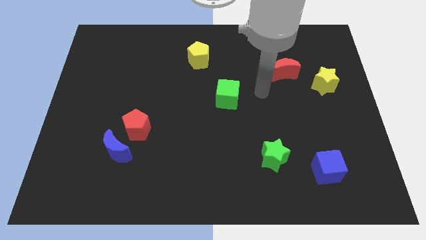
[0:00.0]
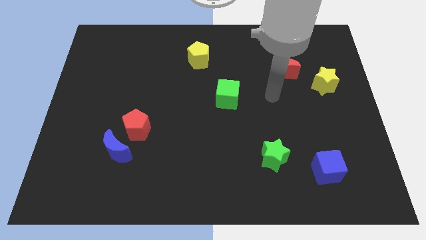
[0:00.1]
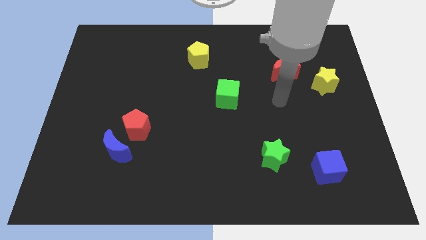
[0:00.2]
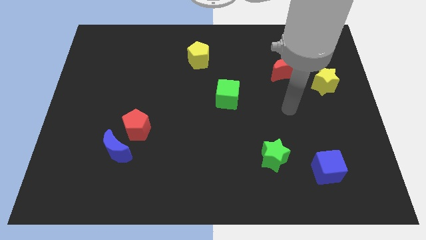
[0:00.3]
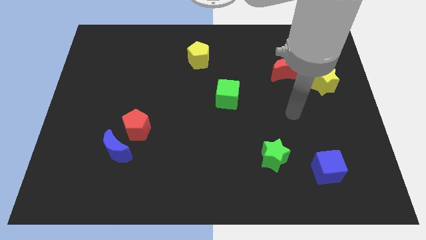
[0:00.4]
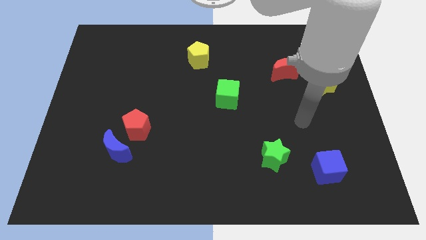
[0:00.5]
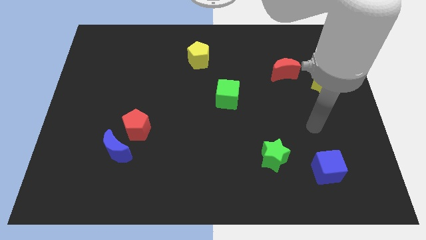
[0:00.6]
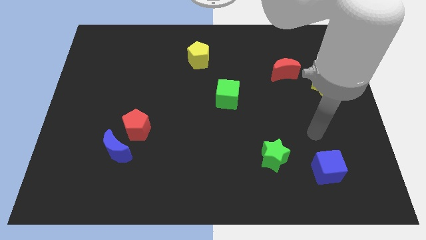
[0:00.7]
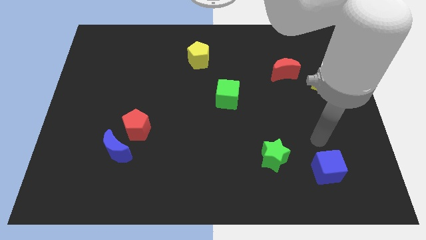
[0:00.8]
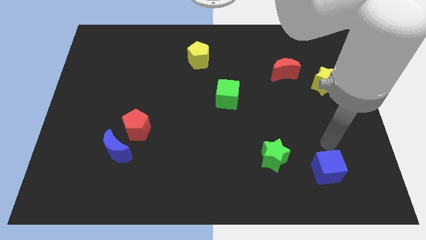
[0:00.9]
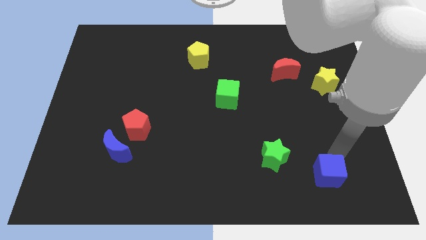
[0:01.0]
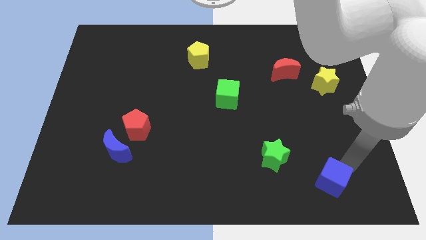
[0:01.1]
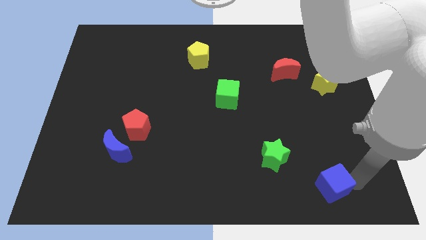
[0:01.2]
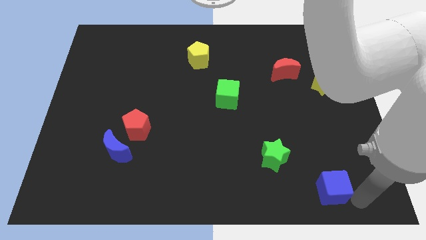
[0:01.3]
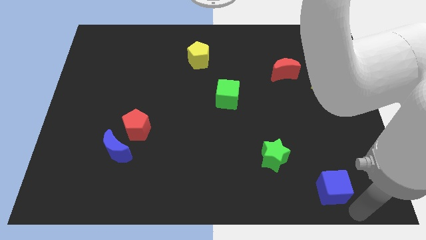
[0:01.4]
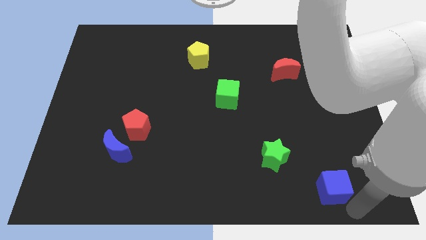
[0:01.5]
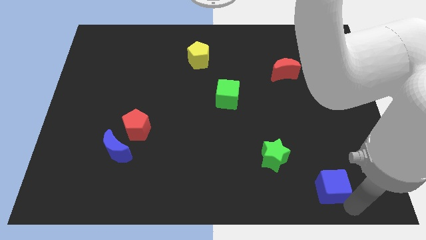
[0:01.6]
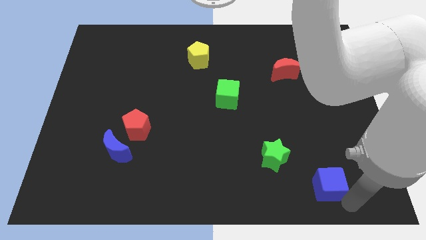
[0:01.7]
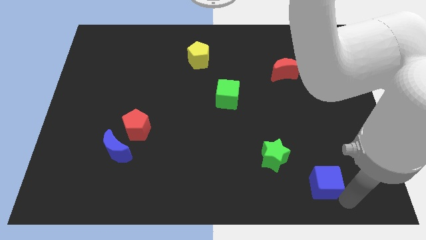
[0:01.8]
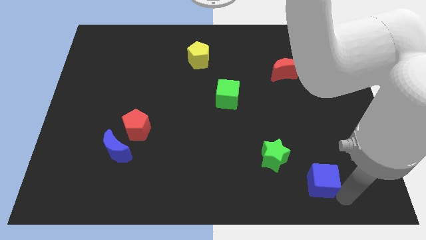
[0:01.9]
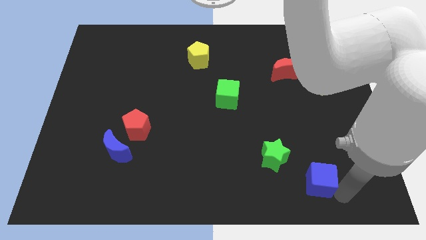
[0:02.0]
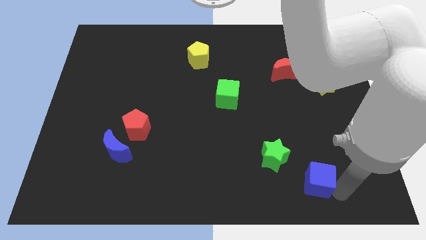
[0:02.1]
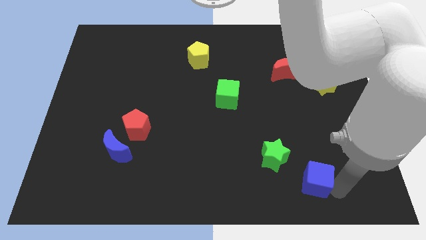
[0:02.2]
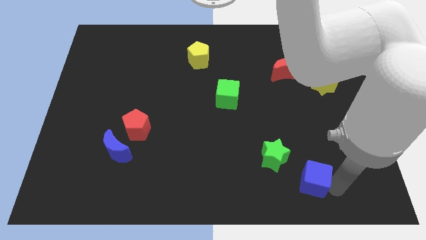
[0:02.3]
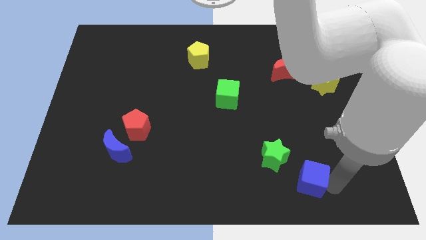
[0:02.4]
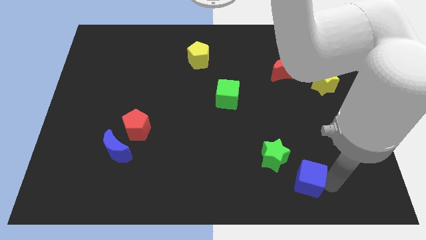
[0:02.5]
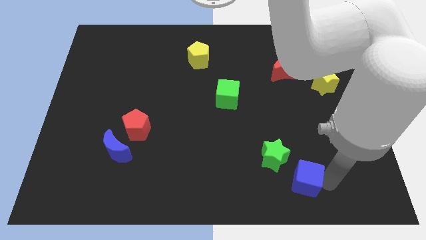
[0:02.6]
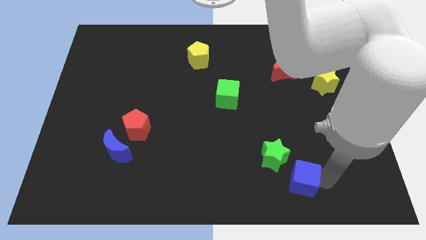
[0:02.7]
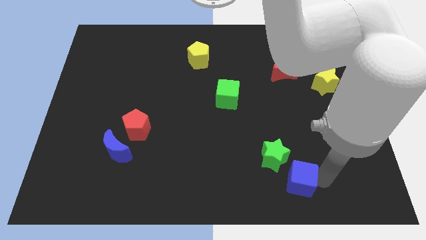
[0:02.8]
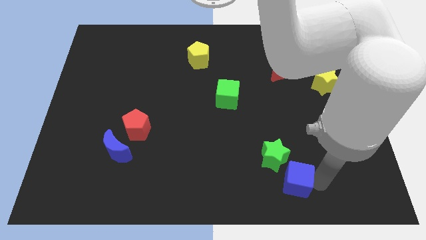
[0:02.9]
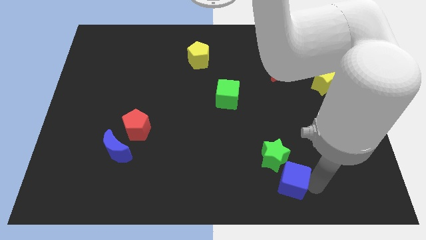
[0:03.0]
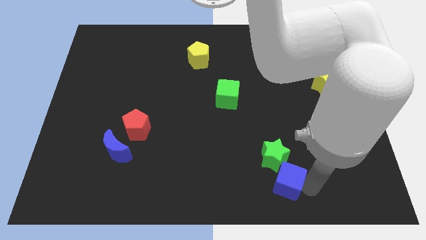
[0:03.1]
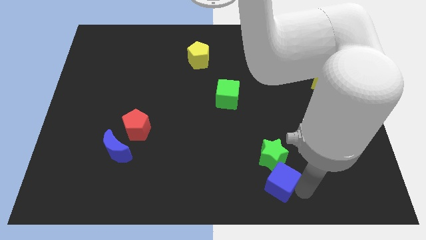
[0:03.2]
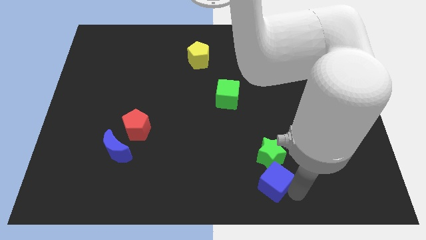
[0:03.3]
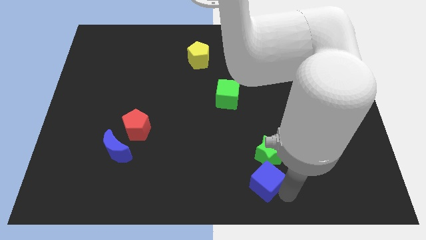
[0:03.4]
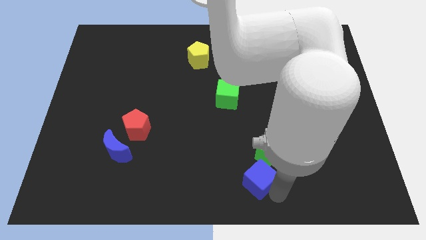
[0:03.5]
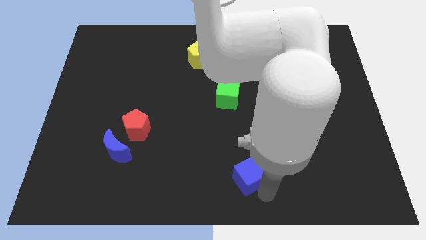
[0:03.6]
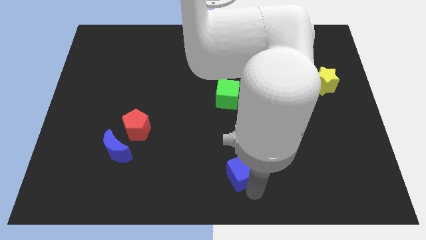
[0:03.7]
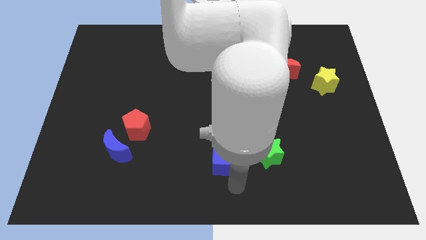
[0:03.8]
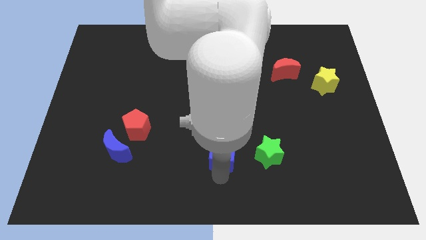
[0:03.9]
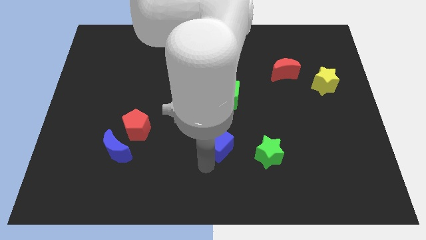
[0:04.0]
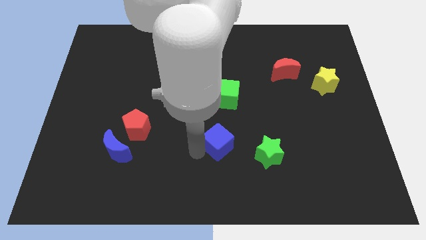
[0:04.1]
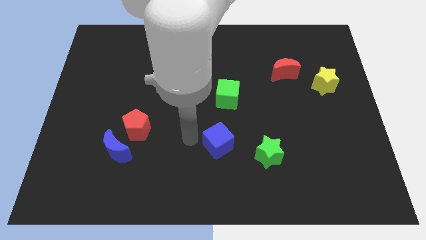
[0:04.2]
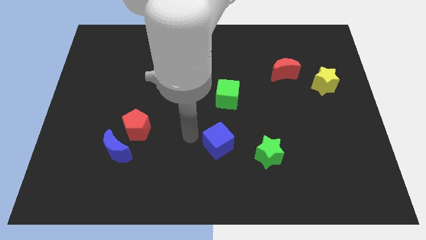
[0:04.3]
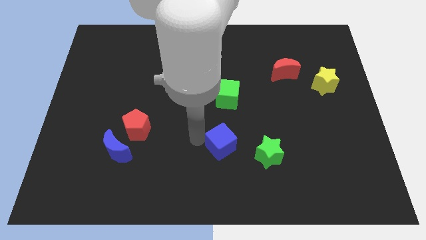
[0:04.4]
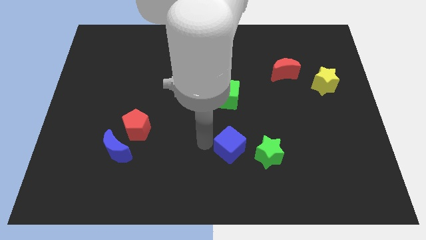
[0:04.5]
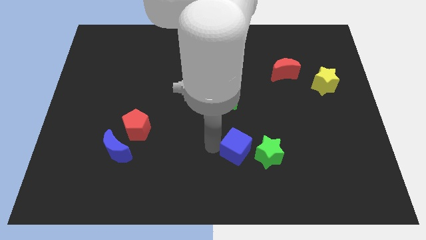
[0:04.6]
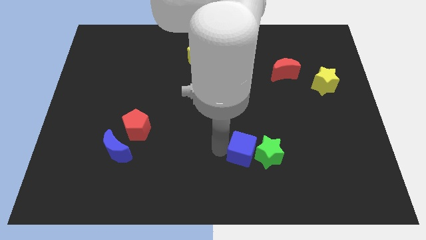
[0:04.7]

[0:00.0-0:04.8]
push the blue cube to the green star

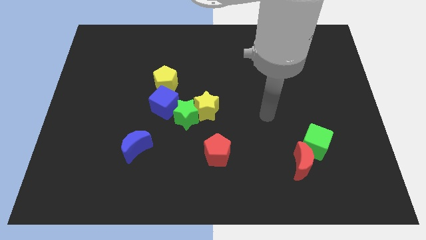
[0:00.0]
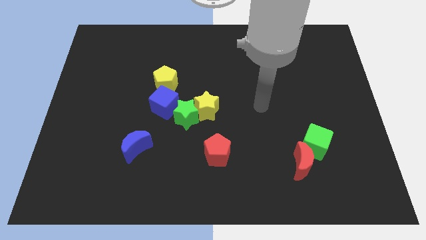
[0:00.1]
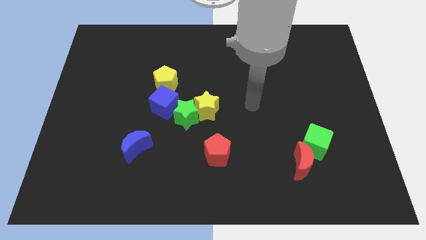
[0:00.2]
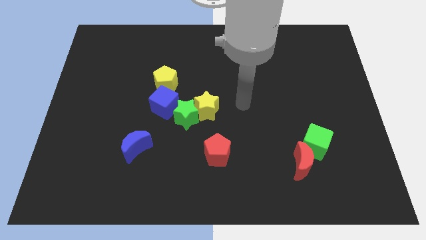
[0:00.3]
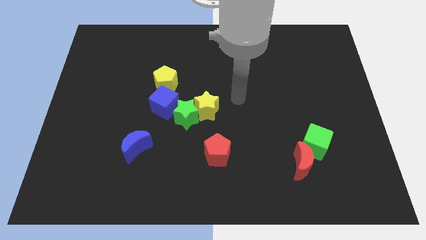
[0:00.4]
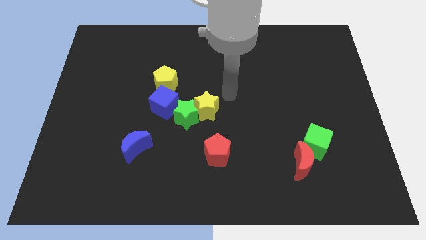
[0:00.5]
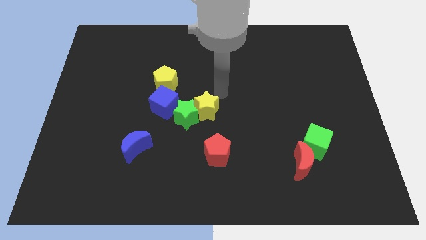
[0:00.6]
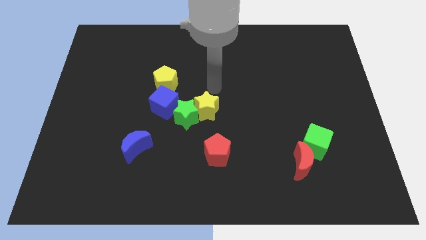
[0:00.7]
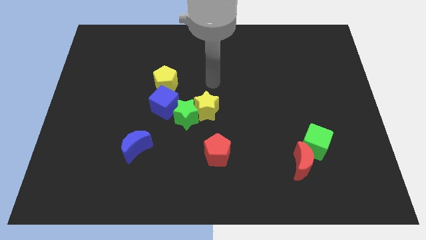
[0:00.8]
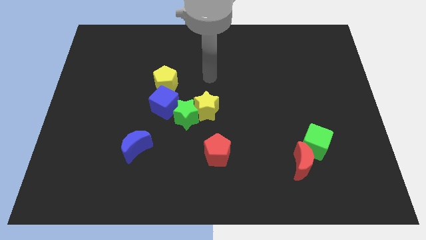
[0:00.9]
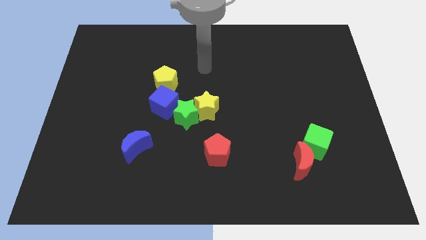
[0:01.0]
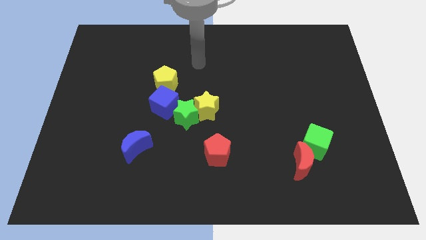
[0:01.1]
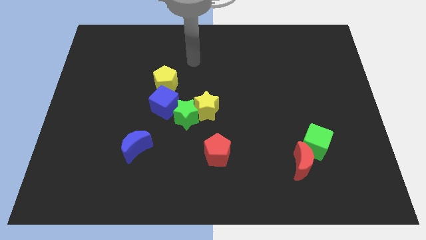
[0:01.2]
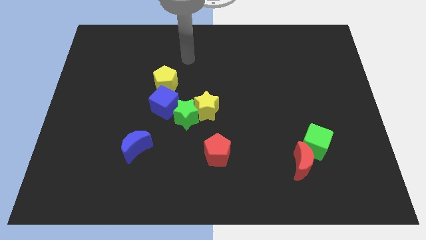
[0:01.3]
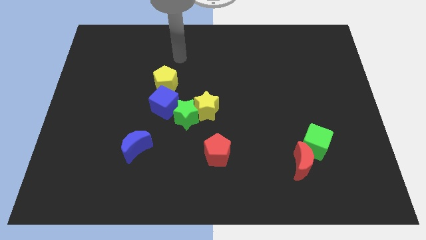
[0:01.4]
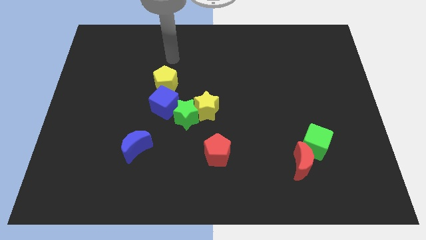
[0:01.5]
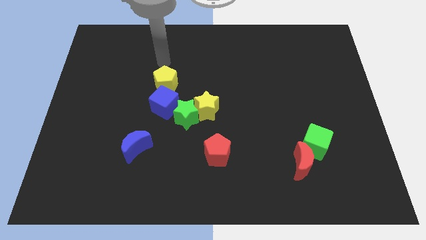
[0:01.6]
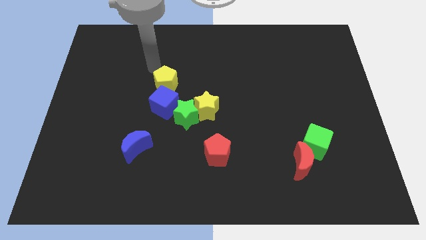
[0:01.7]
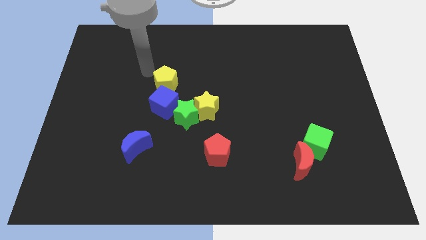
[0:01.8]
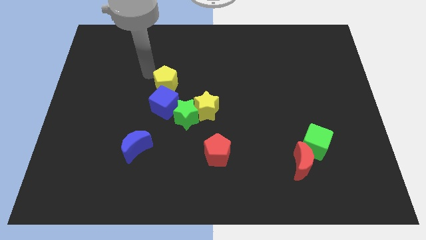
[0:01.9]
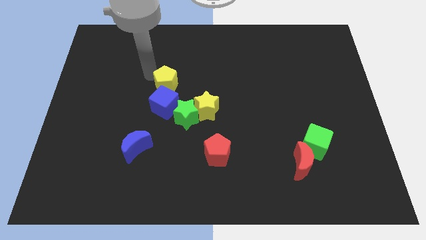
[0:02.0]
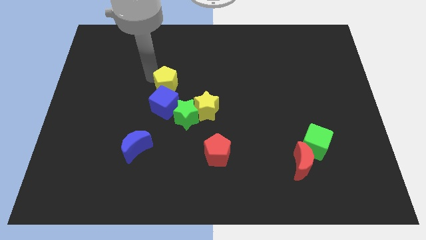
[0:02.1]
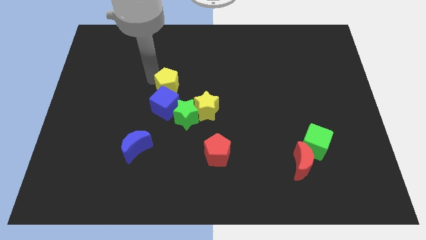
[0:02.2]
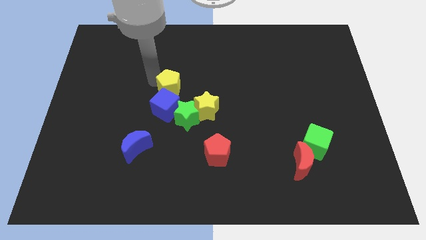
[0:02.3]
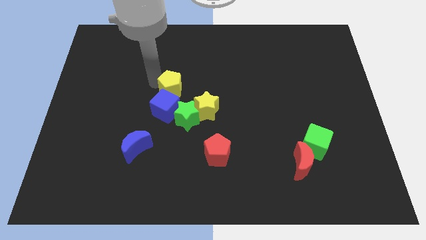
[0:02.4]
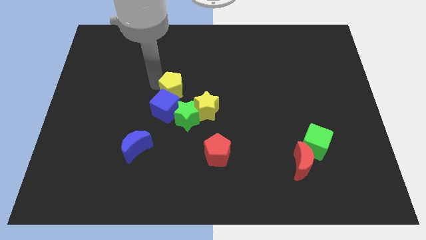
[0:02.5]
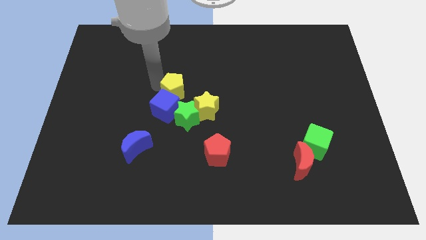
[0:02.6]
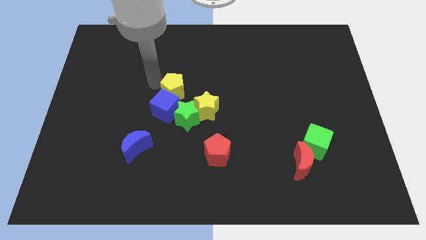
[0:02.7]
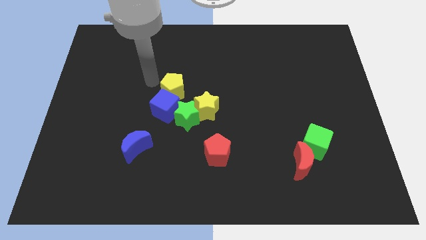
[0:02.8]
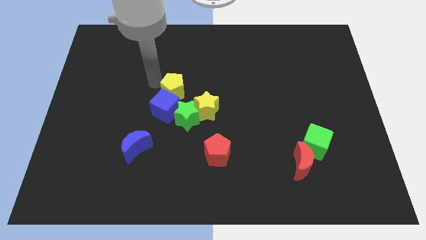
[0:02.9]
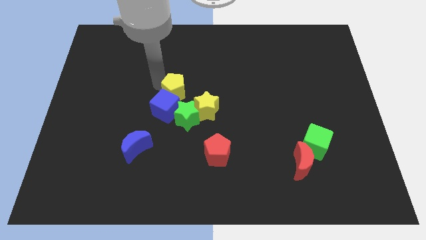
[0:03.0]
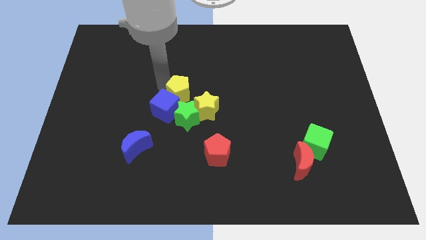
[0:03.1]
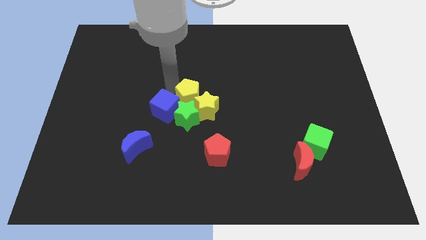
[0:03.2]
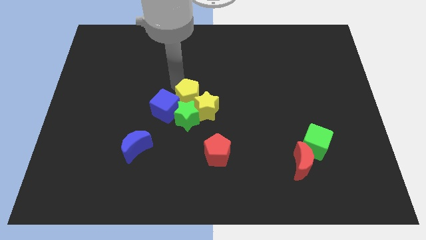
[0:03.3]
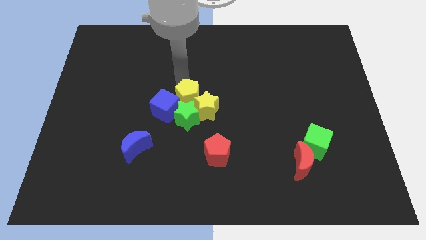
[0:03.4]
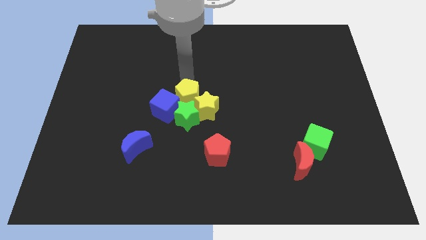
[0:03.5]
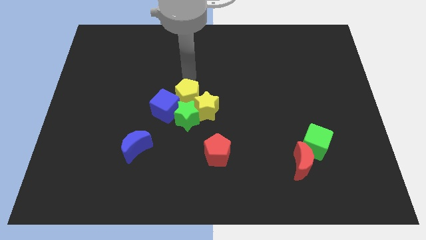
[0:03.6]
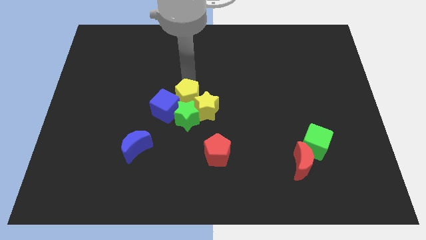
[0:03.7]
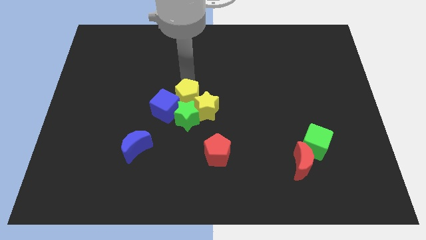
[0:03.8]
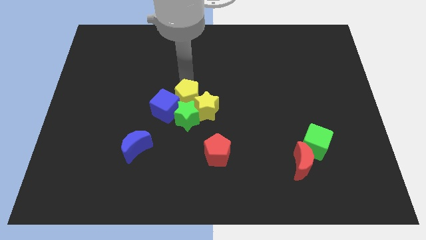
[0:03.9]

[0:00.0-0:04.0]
put the yellow pentagon to the green star
